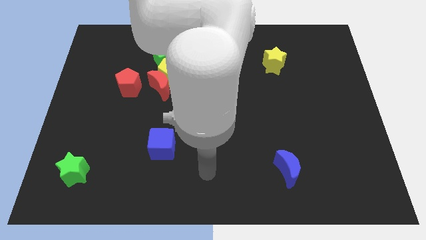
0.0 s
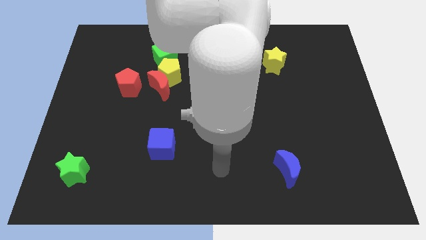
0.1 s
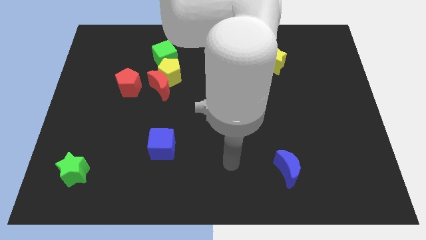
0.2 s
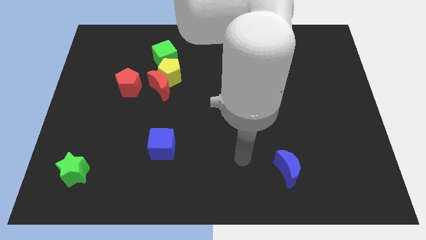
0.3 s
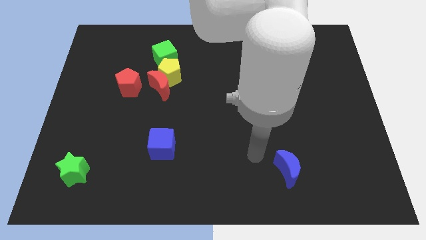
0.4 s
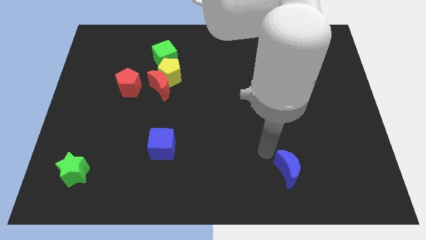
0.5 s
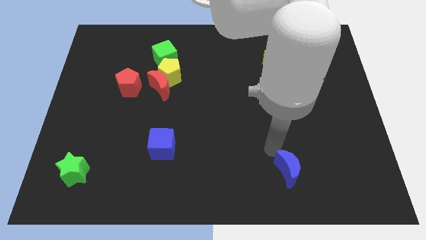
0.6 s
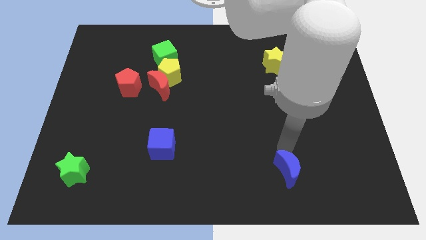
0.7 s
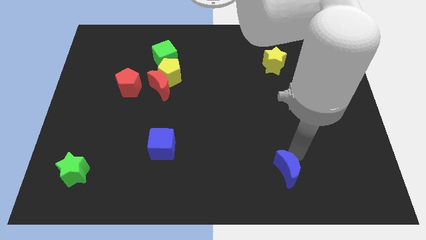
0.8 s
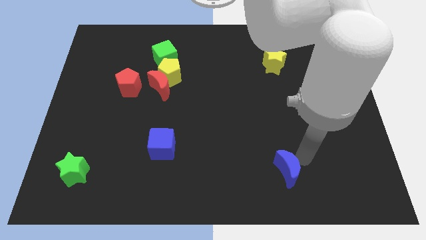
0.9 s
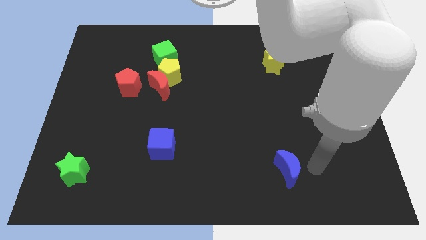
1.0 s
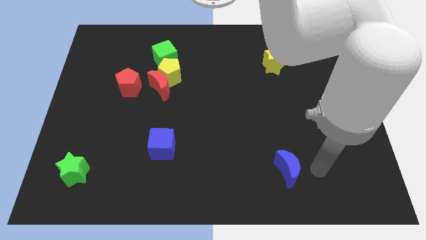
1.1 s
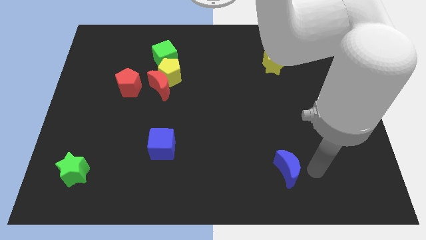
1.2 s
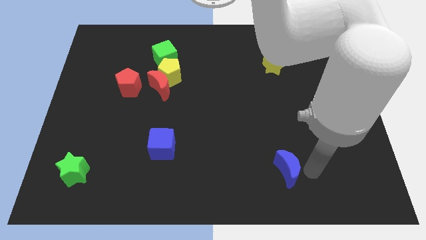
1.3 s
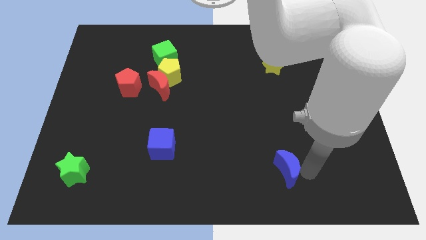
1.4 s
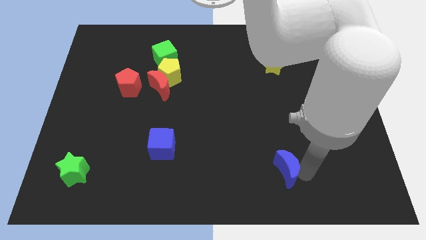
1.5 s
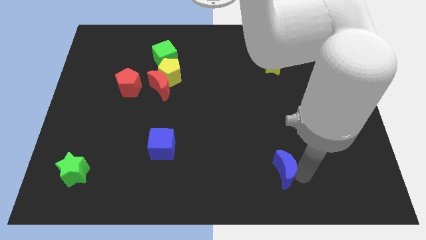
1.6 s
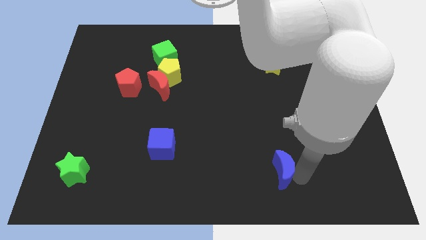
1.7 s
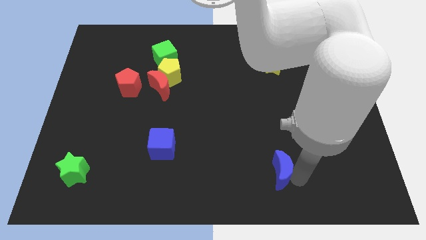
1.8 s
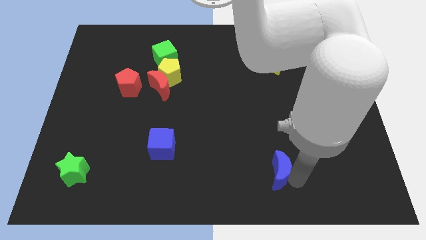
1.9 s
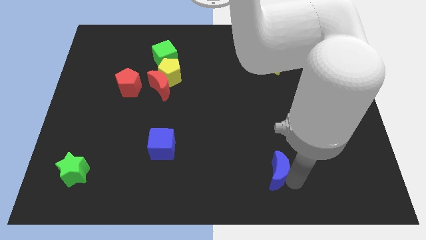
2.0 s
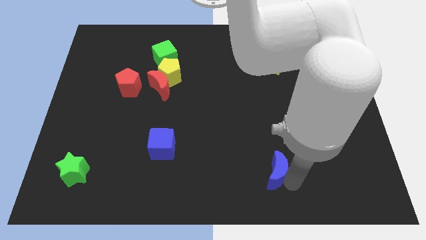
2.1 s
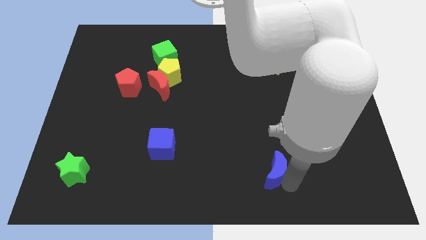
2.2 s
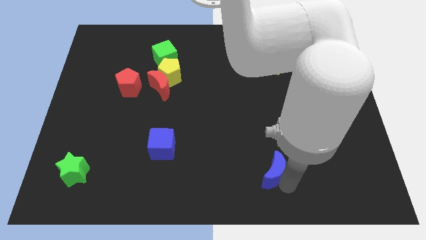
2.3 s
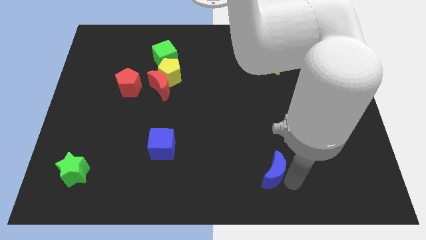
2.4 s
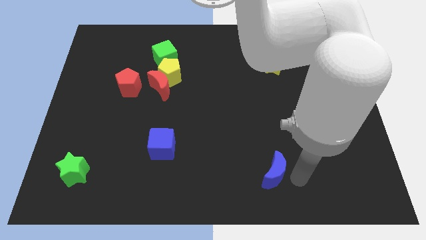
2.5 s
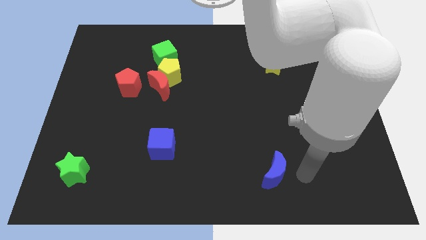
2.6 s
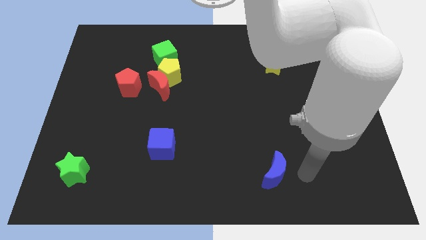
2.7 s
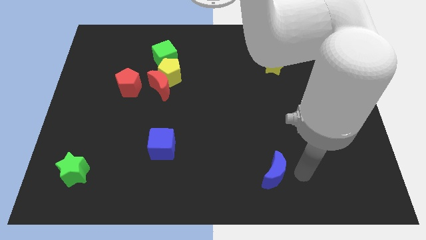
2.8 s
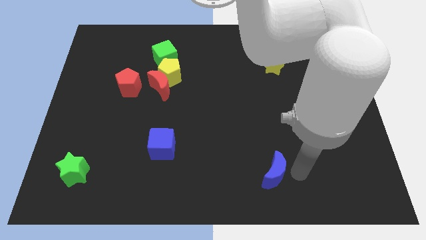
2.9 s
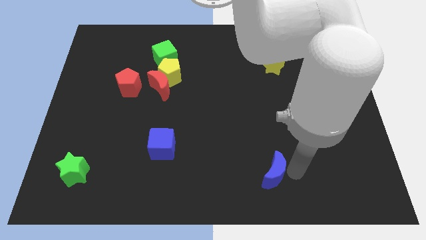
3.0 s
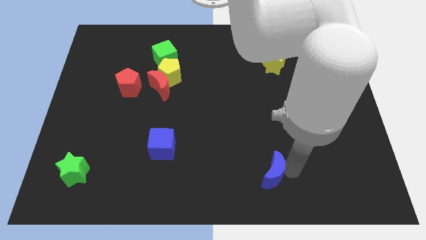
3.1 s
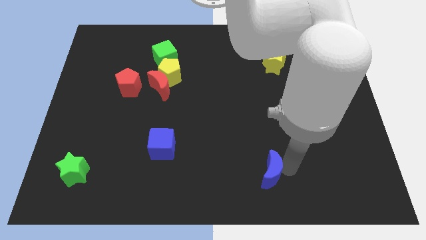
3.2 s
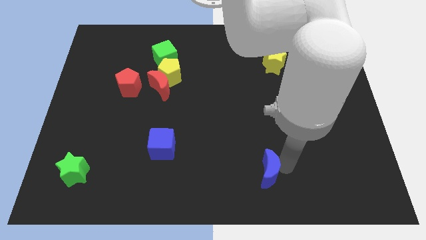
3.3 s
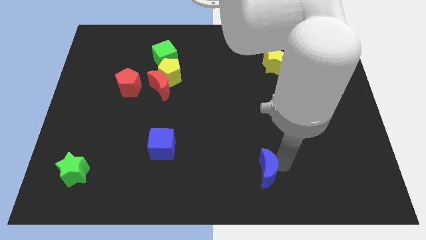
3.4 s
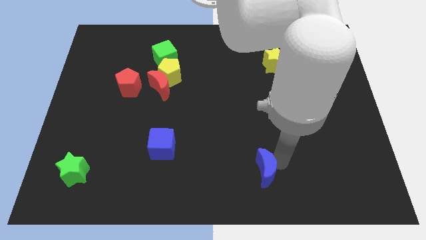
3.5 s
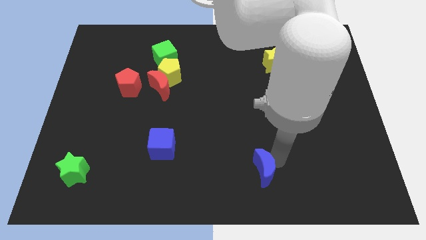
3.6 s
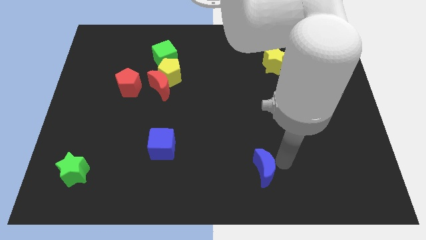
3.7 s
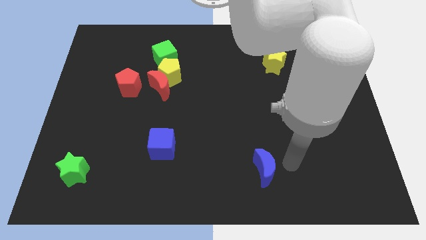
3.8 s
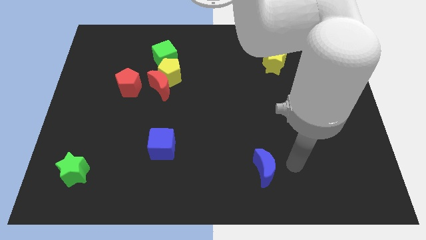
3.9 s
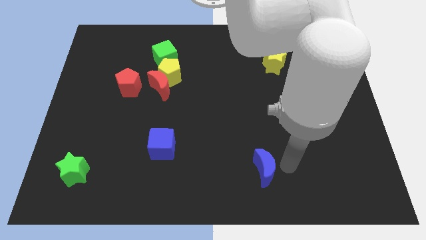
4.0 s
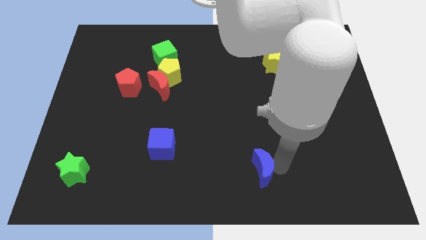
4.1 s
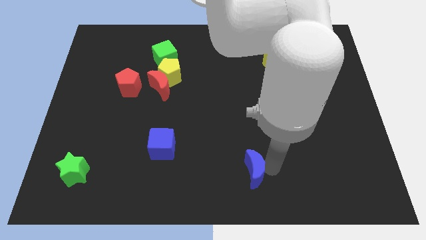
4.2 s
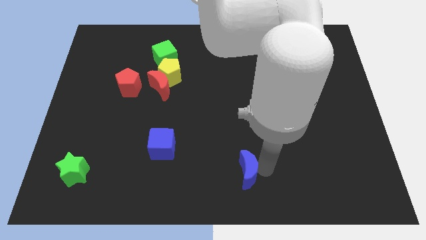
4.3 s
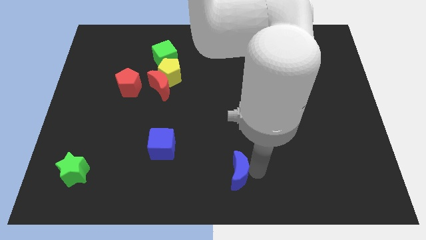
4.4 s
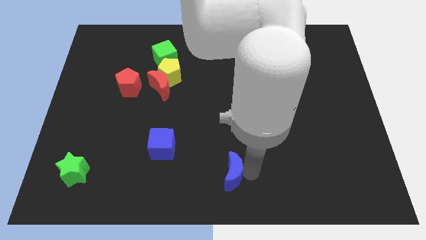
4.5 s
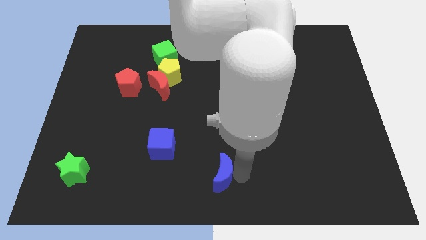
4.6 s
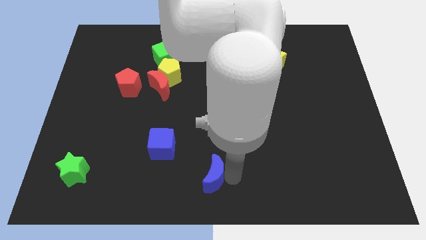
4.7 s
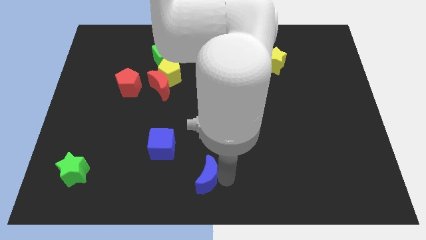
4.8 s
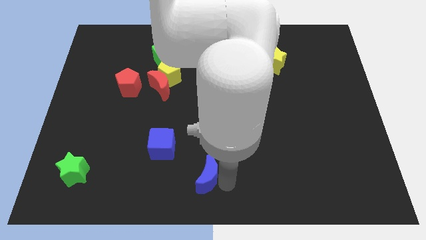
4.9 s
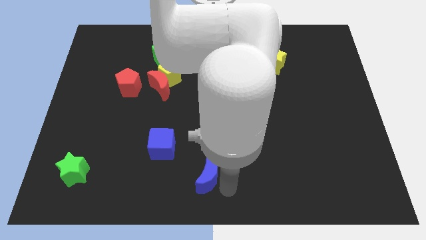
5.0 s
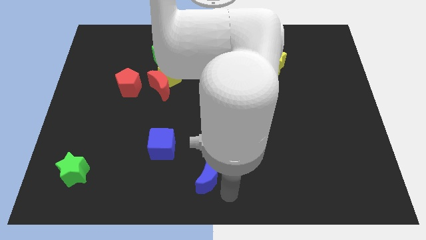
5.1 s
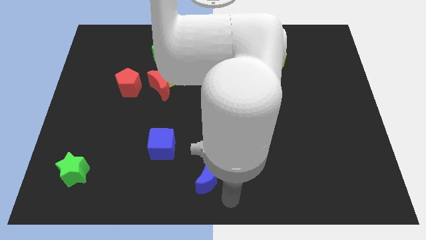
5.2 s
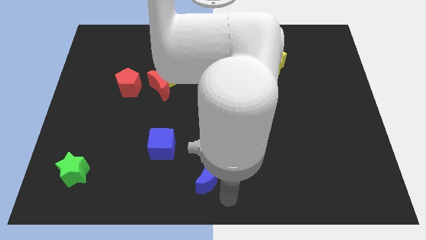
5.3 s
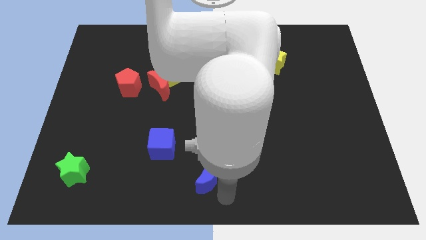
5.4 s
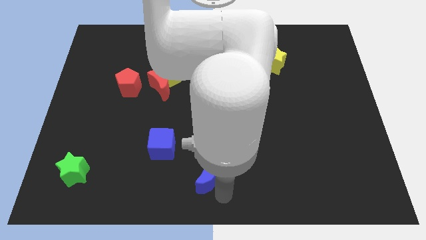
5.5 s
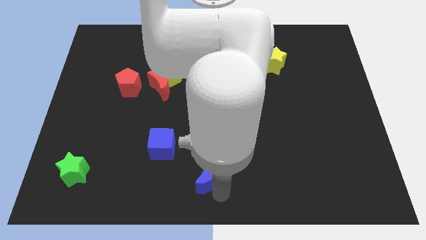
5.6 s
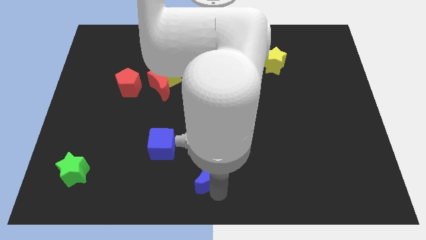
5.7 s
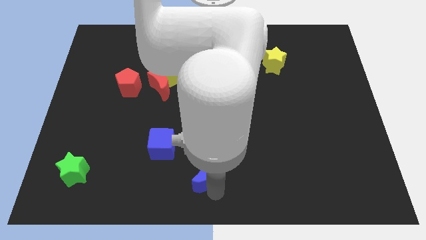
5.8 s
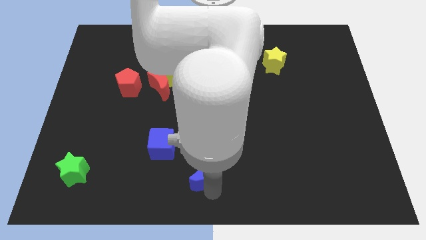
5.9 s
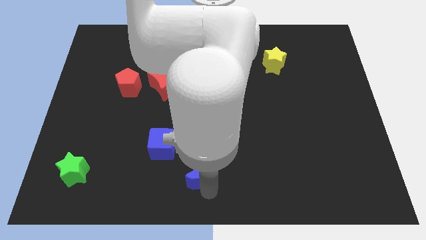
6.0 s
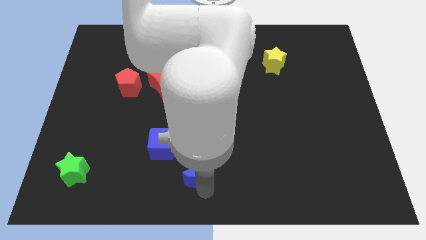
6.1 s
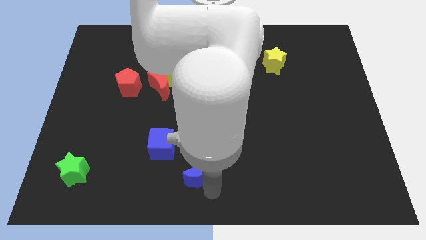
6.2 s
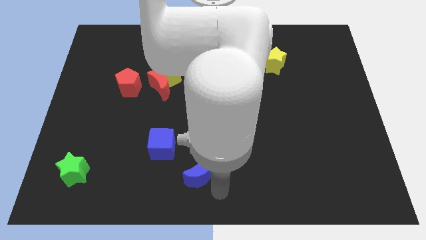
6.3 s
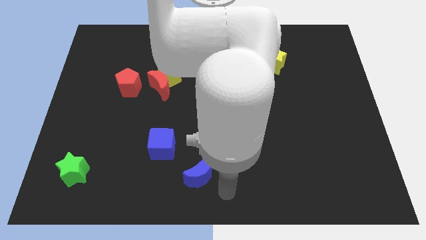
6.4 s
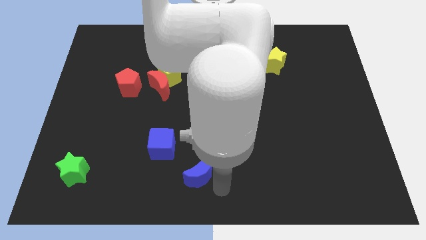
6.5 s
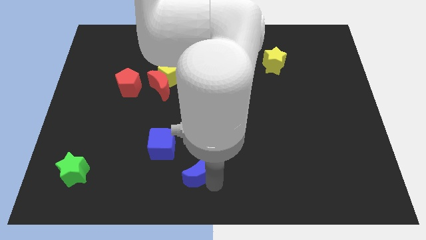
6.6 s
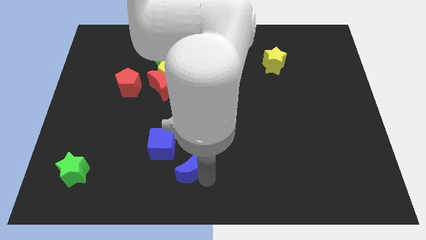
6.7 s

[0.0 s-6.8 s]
move the blue moon left

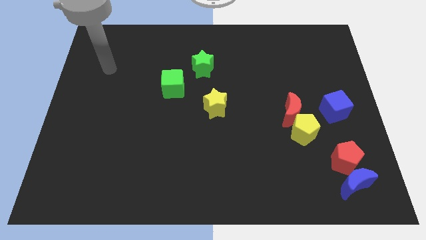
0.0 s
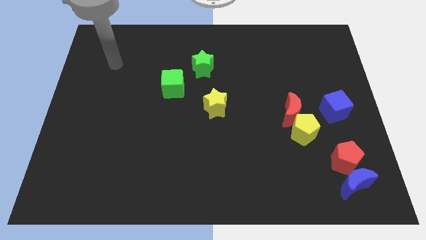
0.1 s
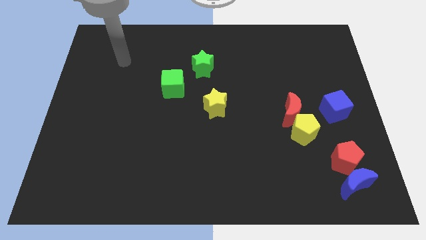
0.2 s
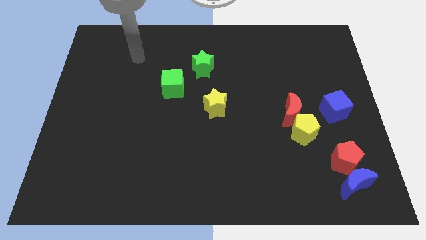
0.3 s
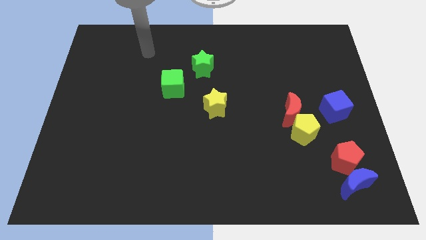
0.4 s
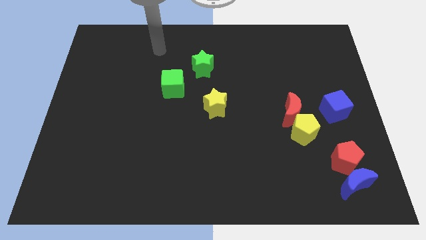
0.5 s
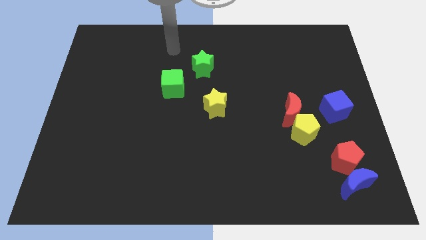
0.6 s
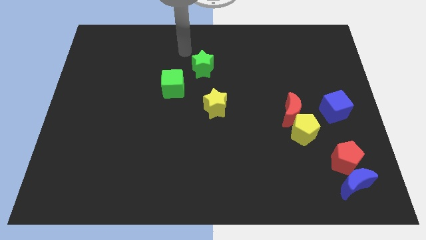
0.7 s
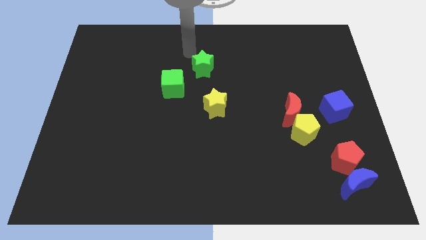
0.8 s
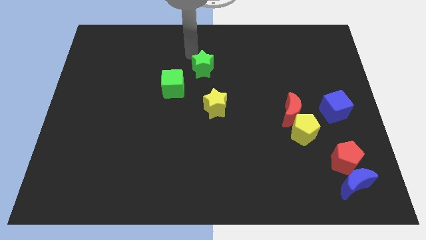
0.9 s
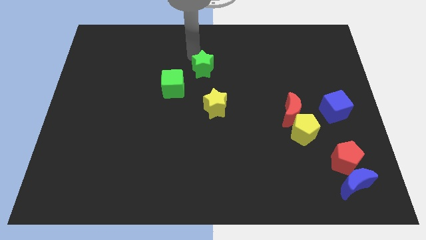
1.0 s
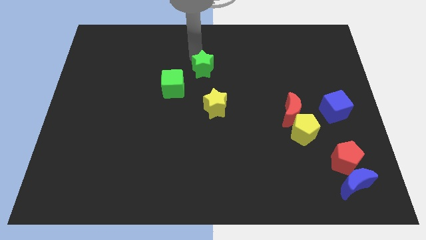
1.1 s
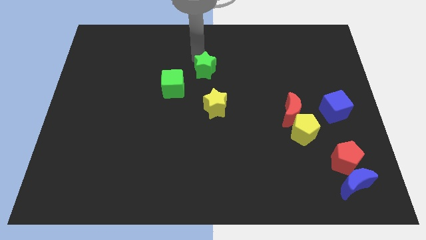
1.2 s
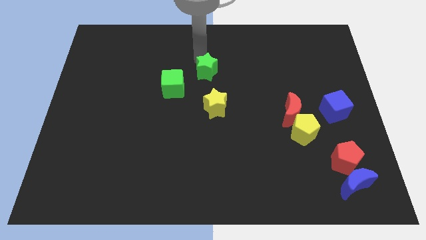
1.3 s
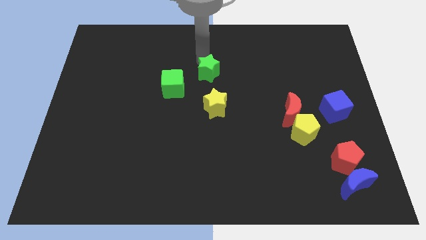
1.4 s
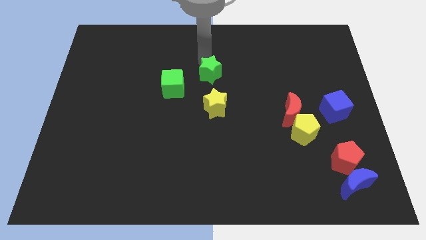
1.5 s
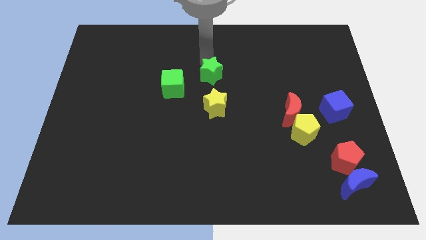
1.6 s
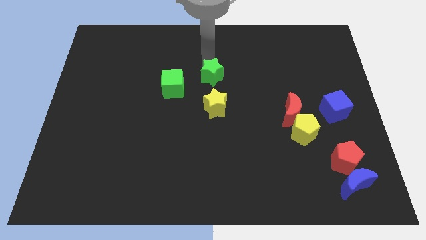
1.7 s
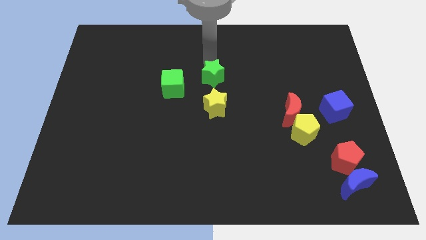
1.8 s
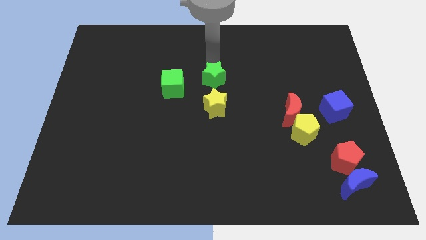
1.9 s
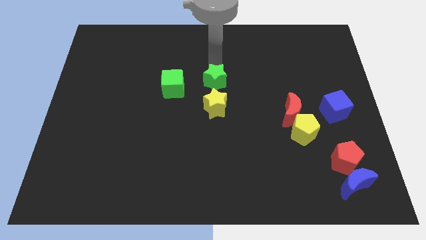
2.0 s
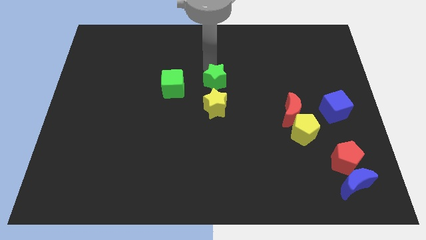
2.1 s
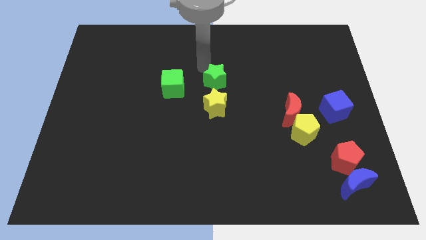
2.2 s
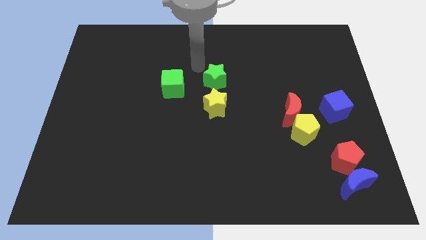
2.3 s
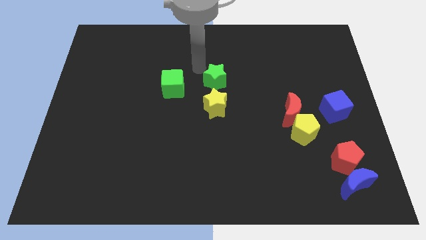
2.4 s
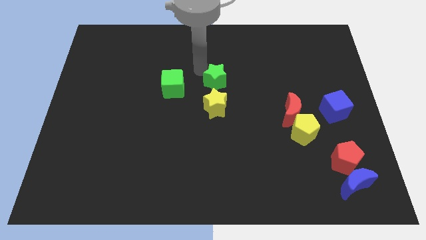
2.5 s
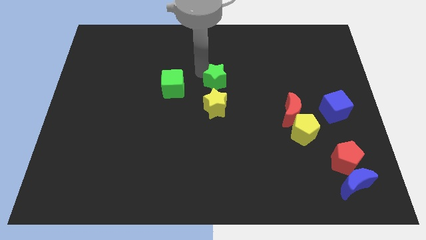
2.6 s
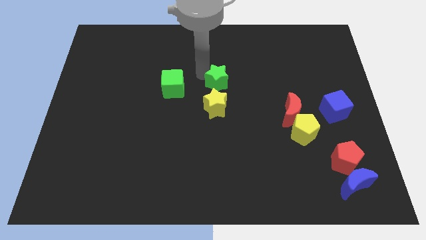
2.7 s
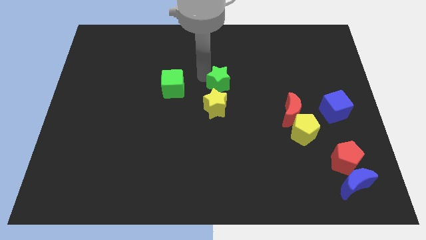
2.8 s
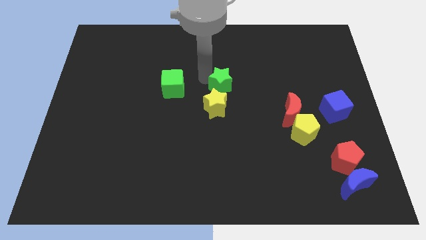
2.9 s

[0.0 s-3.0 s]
push the green star downwards and right diagonally a bit
